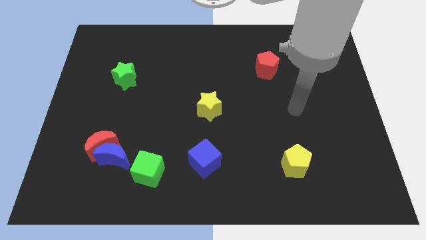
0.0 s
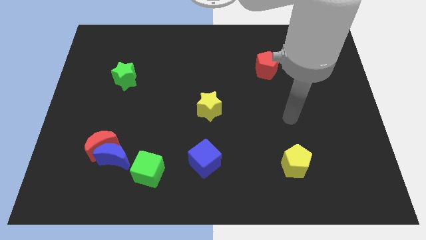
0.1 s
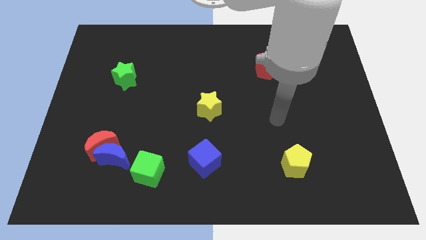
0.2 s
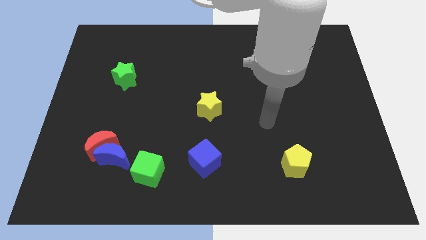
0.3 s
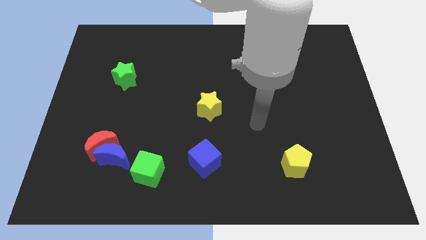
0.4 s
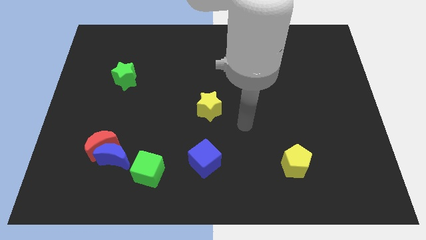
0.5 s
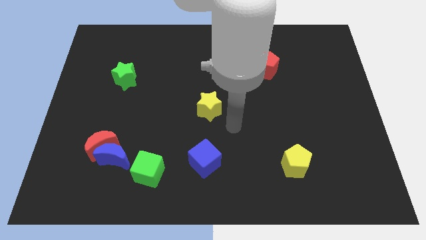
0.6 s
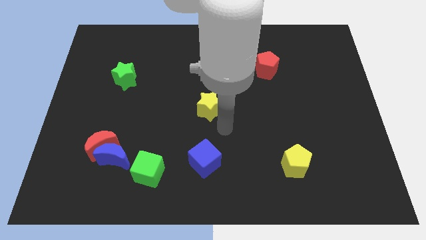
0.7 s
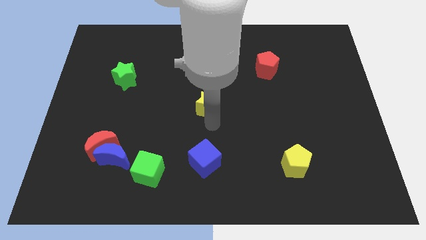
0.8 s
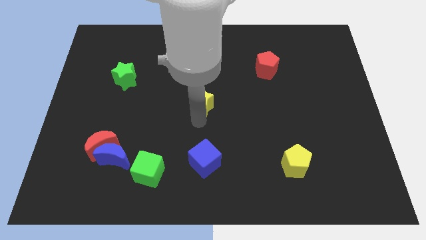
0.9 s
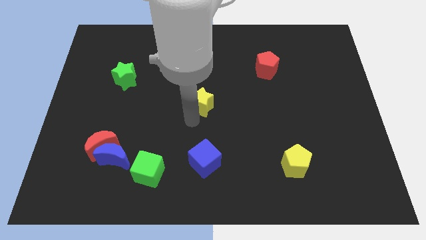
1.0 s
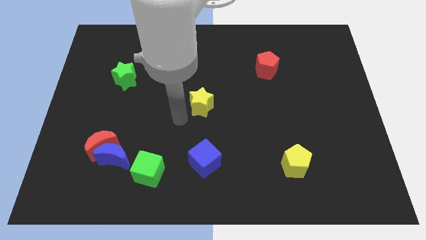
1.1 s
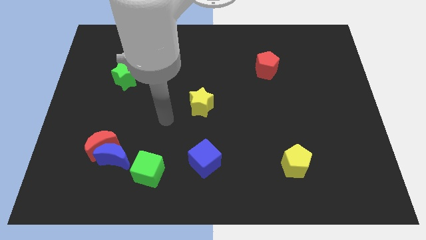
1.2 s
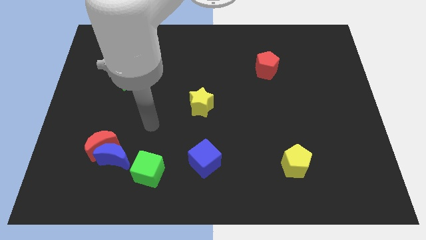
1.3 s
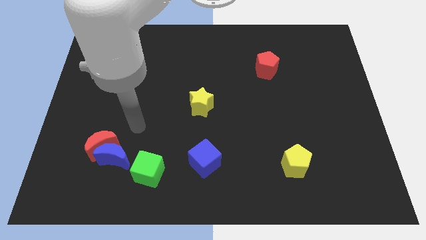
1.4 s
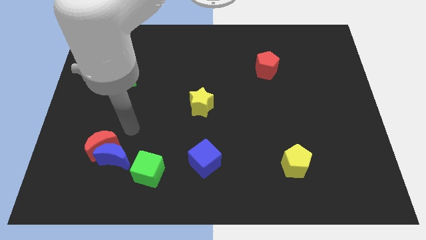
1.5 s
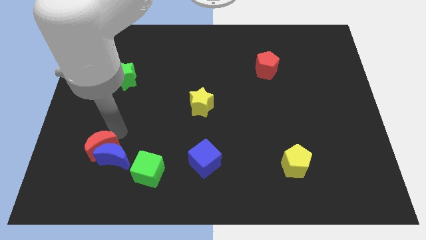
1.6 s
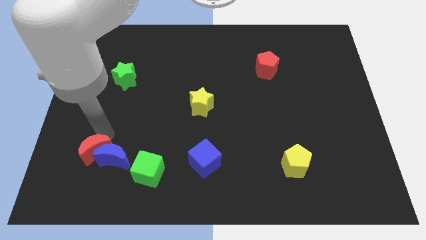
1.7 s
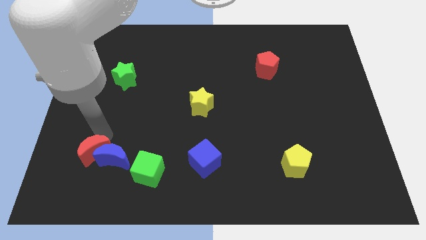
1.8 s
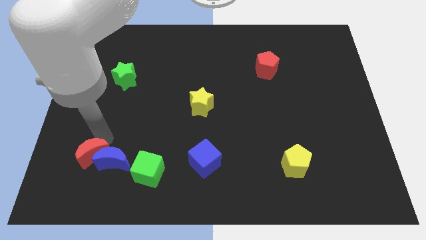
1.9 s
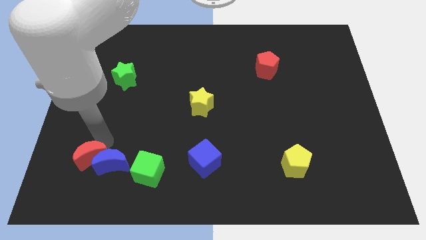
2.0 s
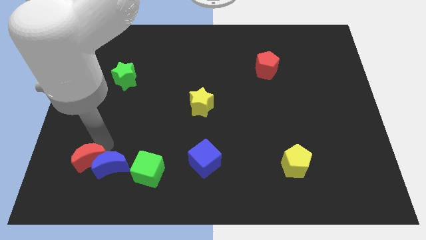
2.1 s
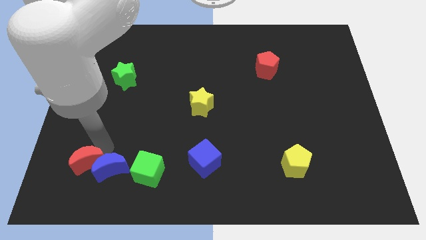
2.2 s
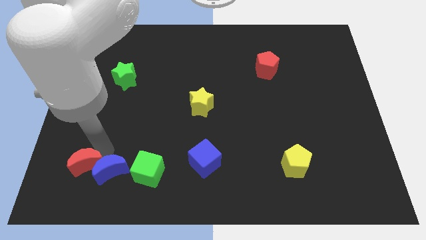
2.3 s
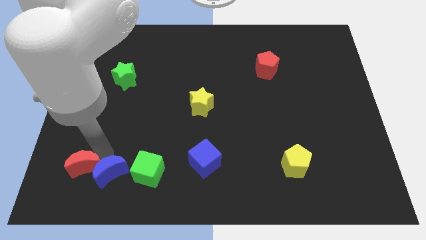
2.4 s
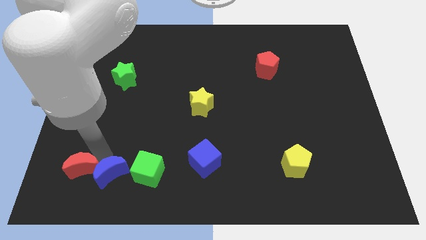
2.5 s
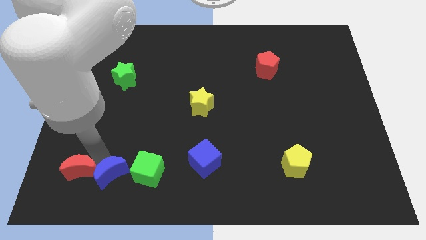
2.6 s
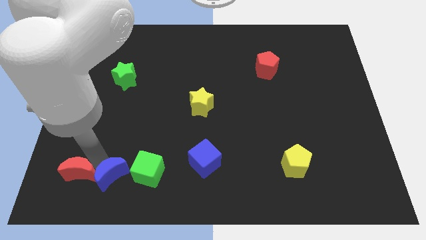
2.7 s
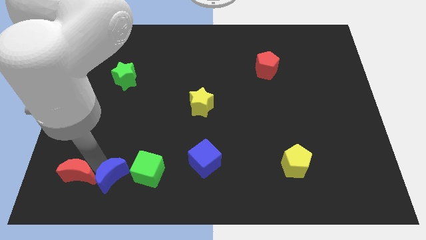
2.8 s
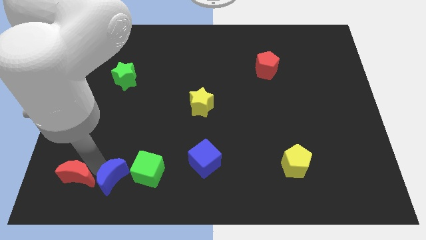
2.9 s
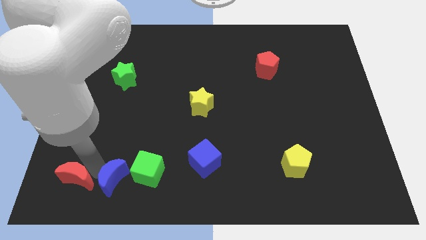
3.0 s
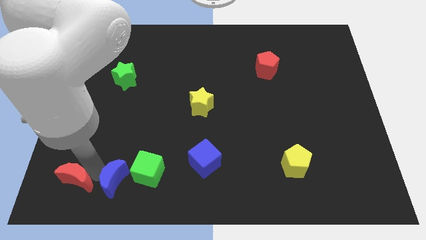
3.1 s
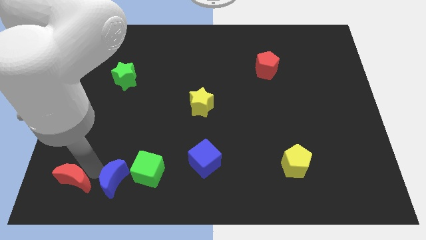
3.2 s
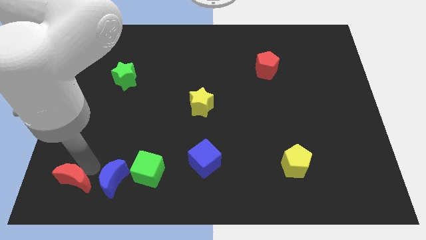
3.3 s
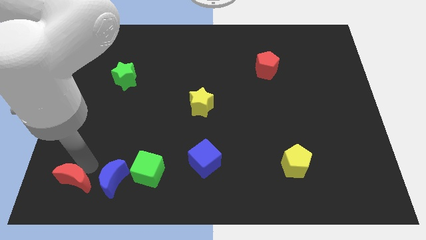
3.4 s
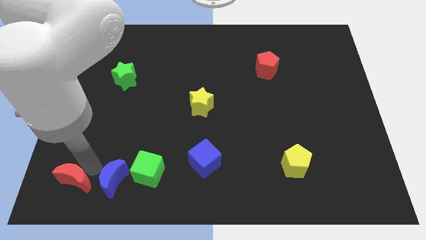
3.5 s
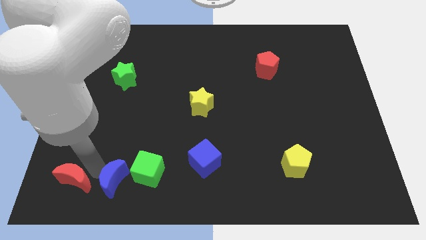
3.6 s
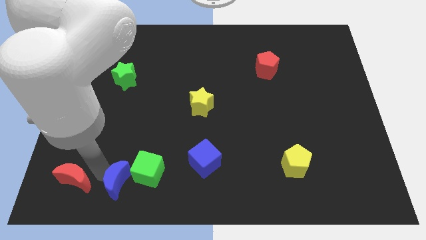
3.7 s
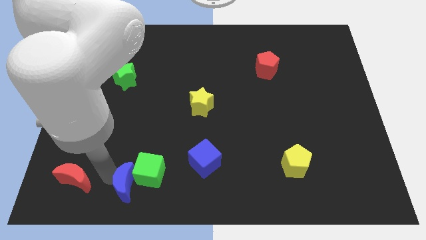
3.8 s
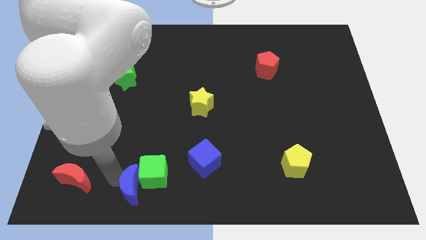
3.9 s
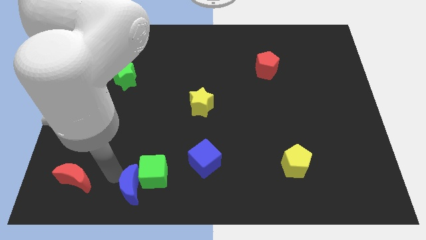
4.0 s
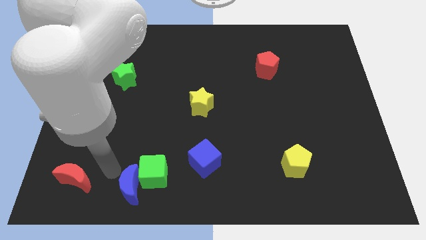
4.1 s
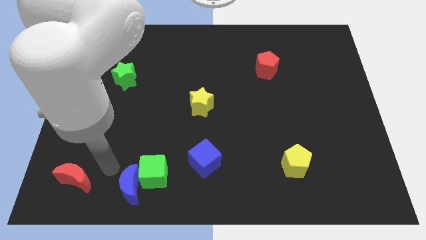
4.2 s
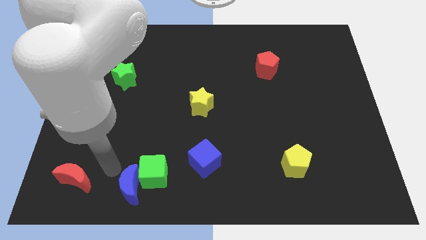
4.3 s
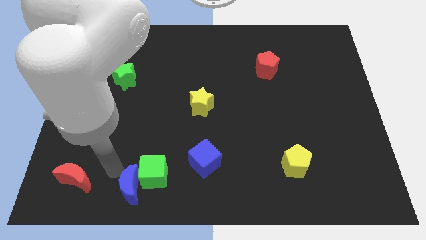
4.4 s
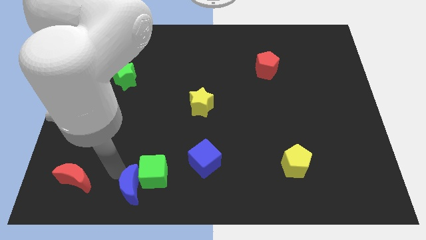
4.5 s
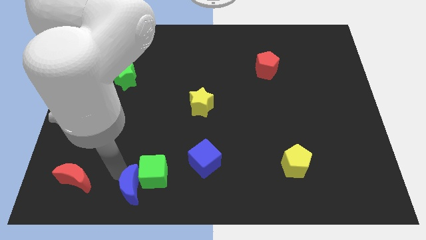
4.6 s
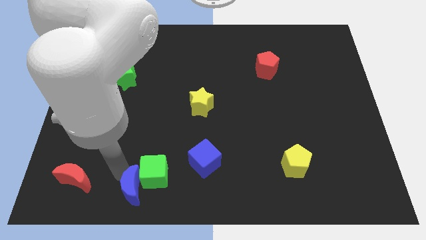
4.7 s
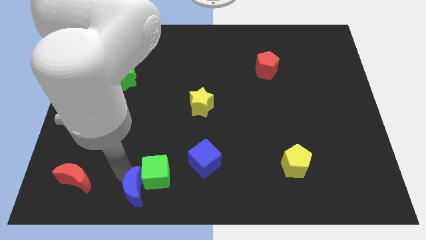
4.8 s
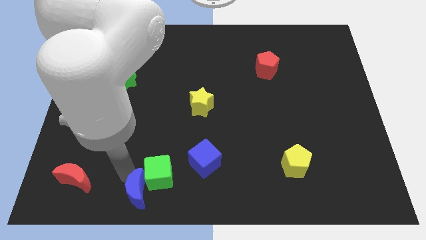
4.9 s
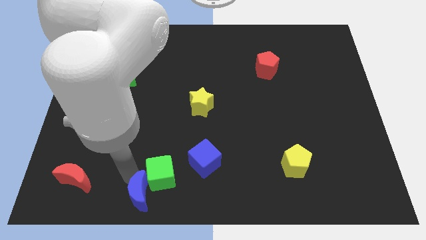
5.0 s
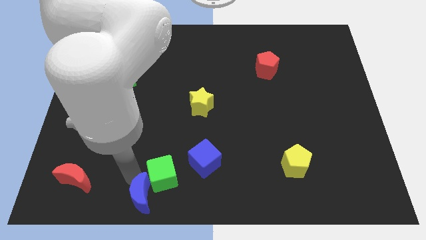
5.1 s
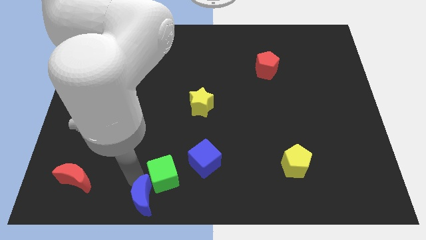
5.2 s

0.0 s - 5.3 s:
move the blue moon to the bottom side

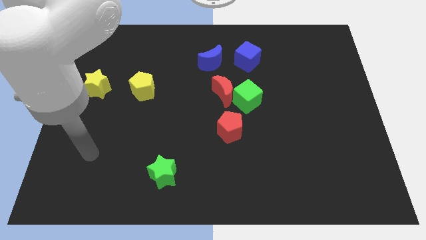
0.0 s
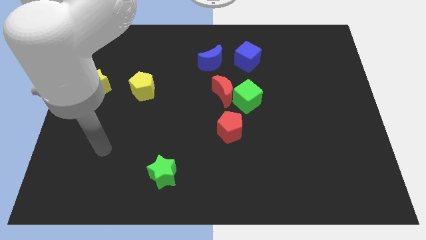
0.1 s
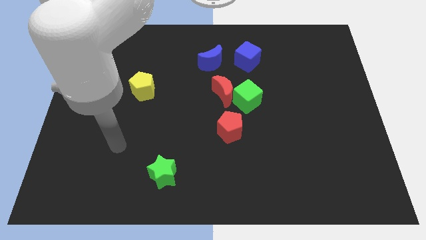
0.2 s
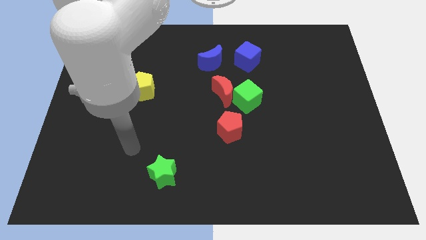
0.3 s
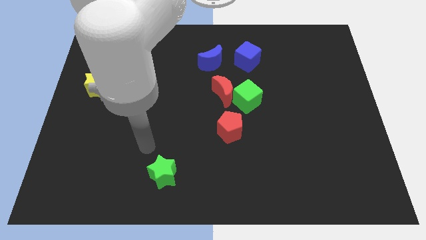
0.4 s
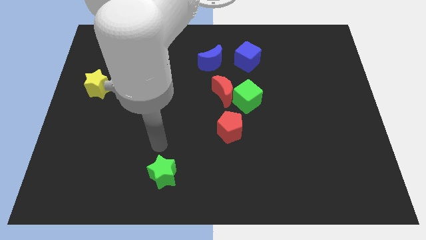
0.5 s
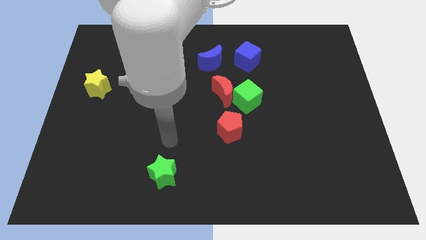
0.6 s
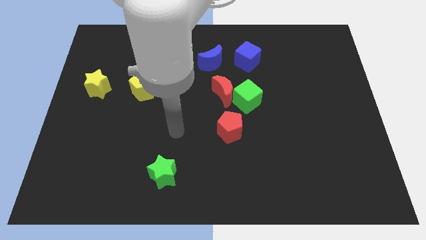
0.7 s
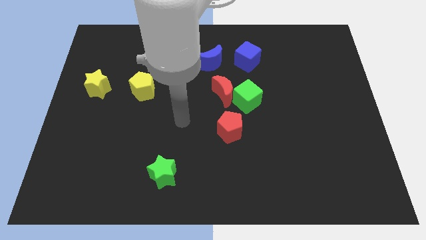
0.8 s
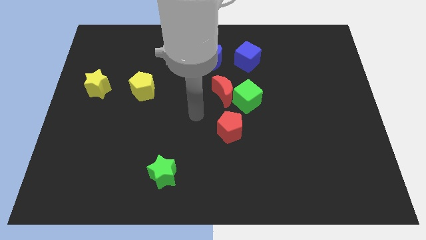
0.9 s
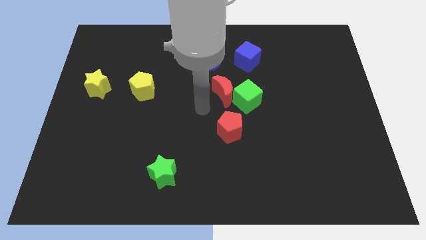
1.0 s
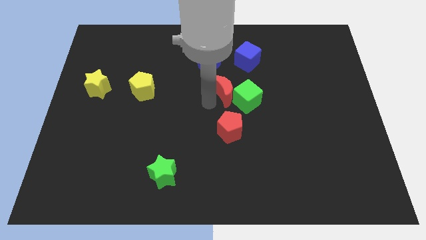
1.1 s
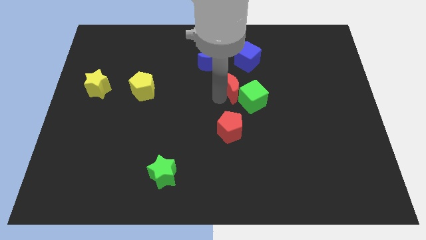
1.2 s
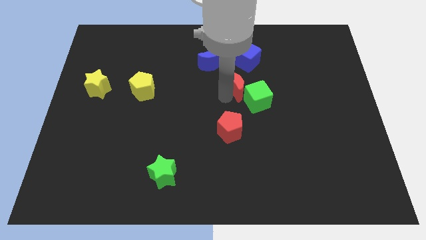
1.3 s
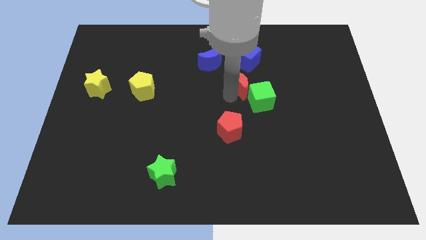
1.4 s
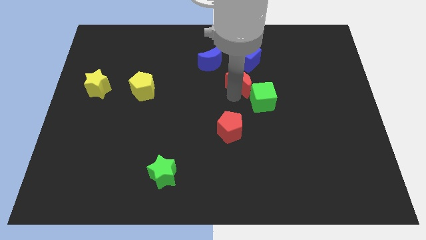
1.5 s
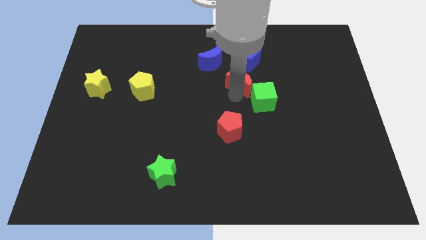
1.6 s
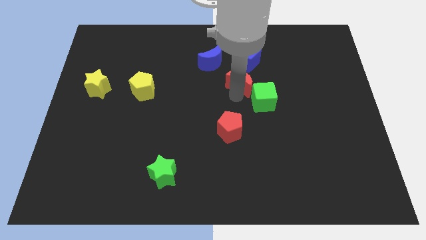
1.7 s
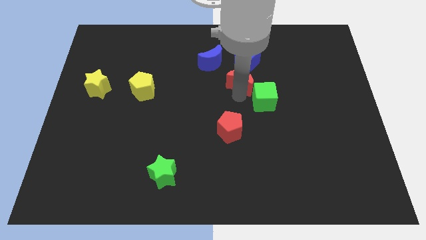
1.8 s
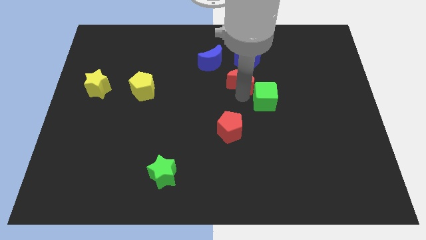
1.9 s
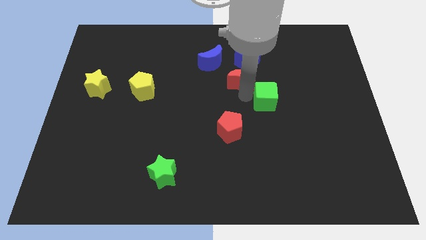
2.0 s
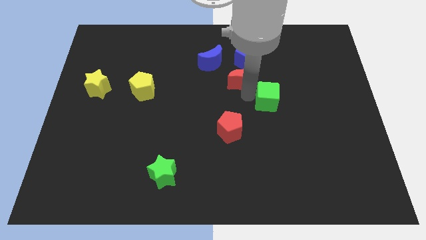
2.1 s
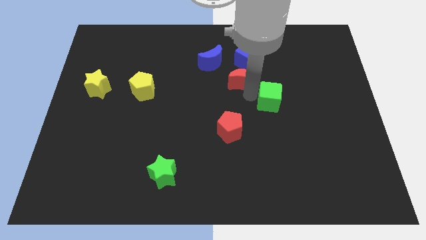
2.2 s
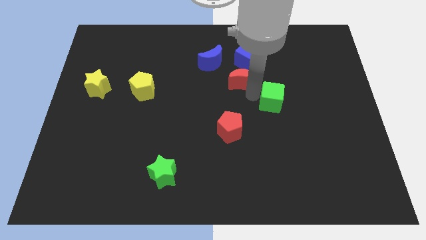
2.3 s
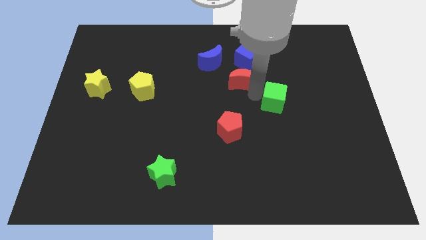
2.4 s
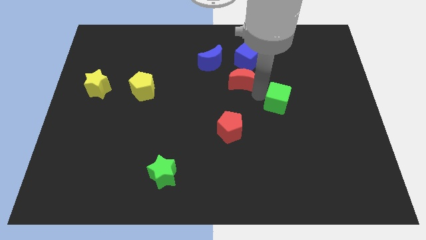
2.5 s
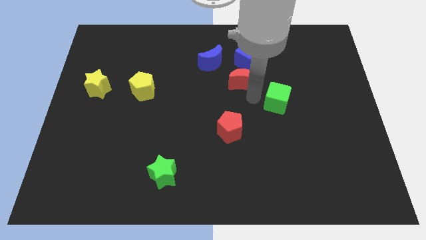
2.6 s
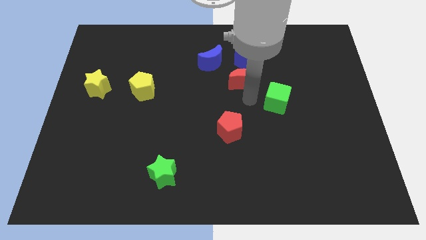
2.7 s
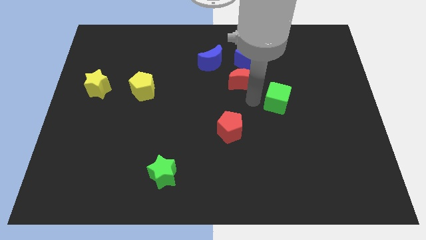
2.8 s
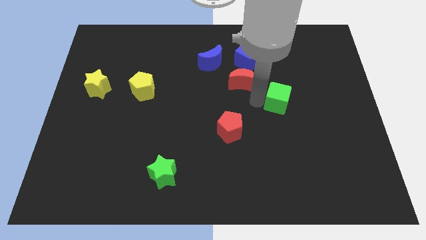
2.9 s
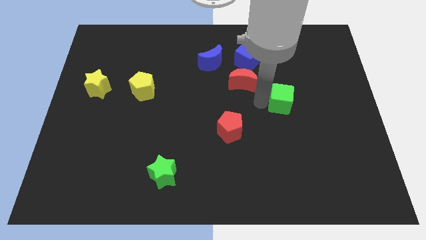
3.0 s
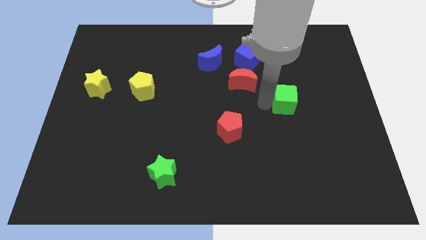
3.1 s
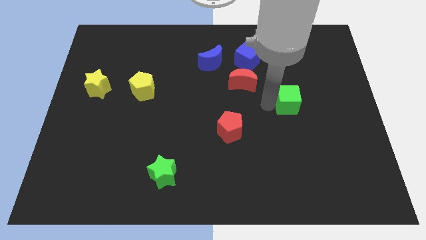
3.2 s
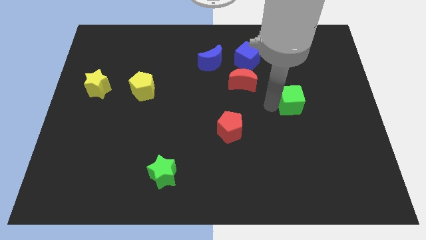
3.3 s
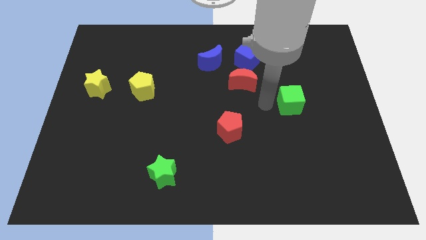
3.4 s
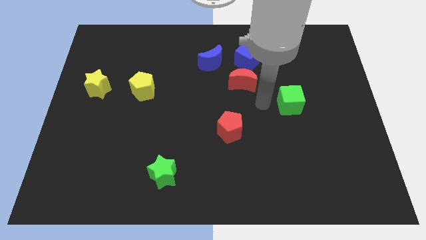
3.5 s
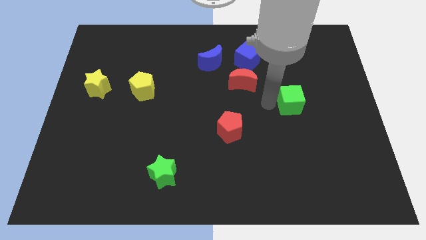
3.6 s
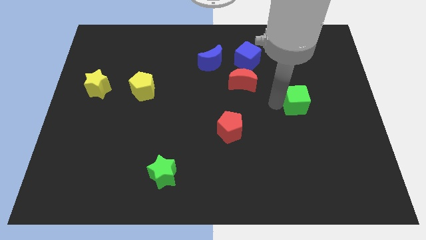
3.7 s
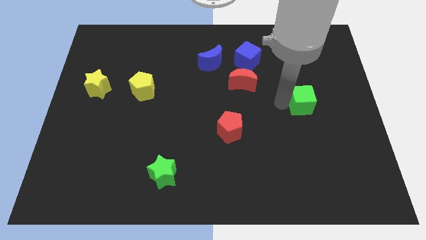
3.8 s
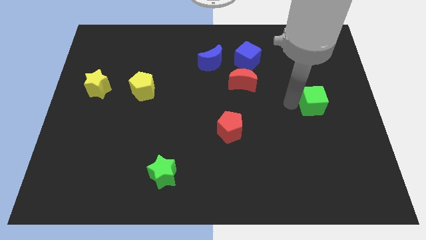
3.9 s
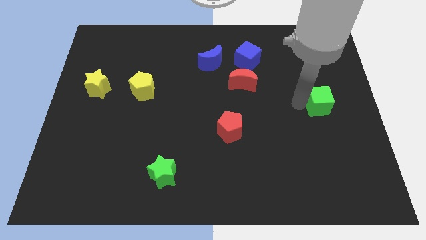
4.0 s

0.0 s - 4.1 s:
push the green cube to the right side of the board
